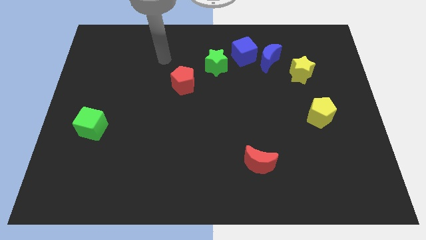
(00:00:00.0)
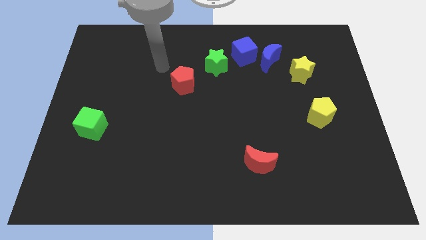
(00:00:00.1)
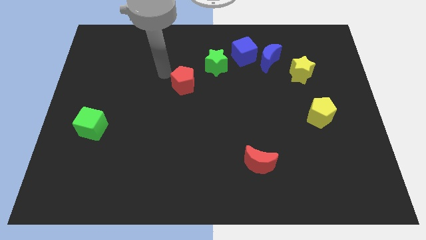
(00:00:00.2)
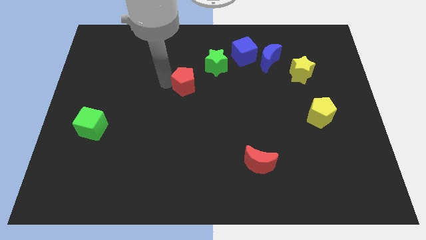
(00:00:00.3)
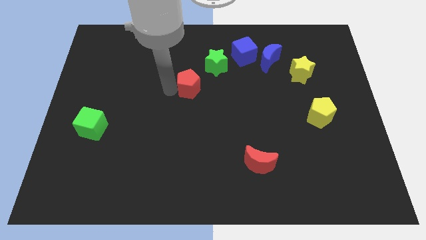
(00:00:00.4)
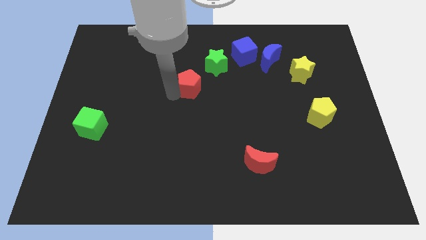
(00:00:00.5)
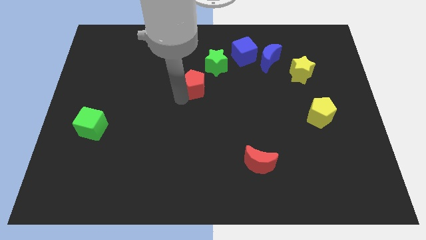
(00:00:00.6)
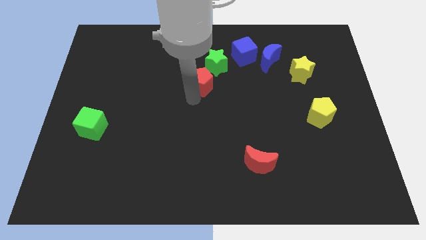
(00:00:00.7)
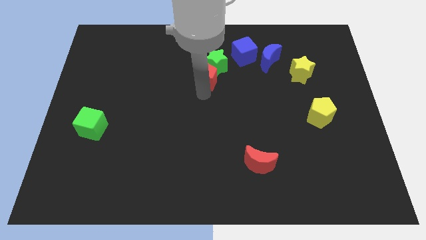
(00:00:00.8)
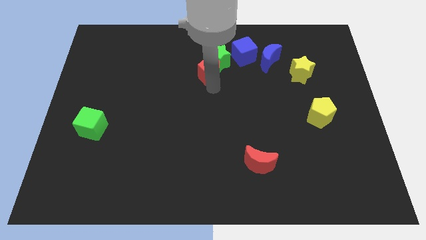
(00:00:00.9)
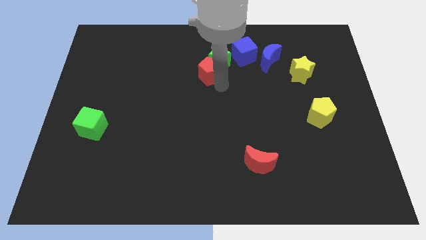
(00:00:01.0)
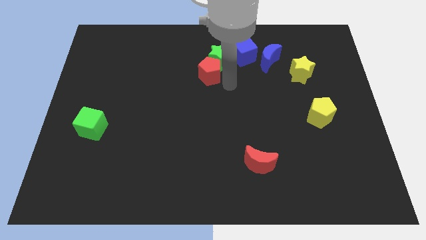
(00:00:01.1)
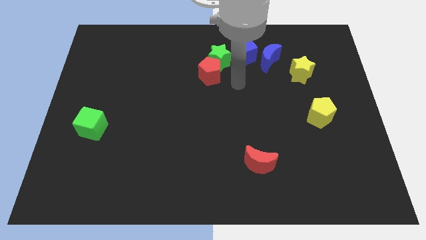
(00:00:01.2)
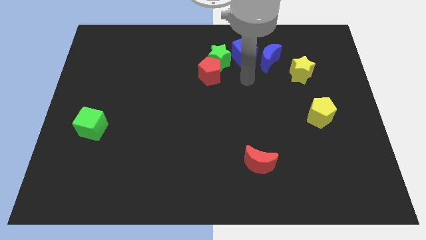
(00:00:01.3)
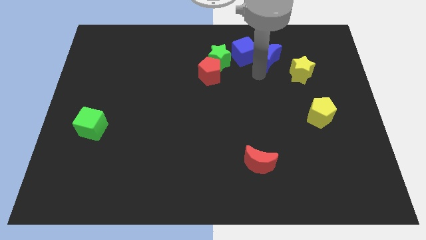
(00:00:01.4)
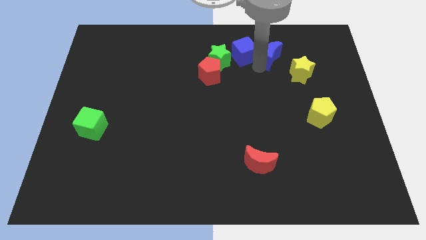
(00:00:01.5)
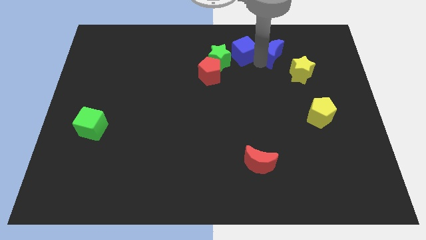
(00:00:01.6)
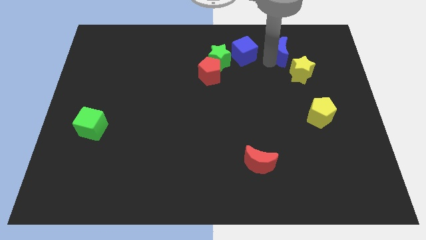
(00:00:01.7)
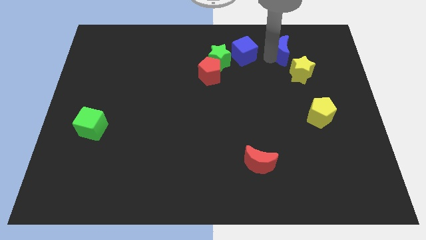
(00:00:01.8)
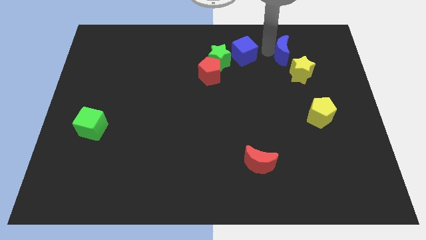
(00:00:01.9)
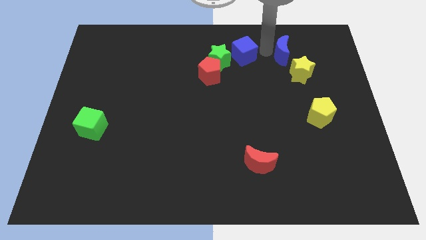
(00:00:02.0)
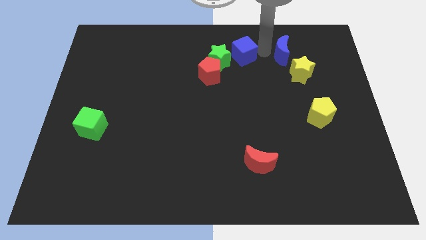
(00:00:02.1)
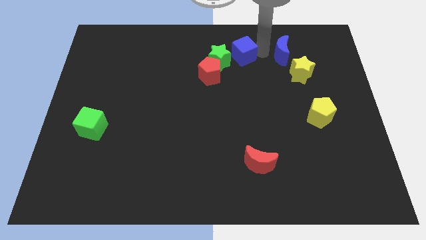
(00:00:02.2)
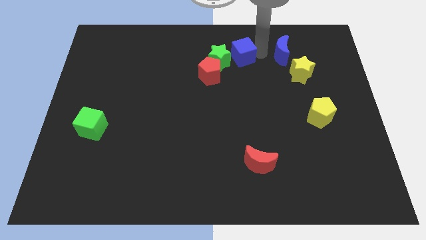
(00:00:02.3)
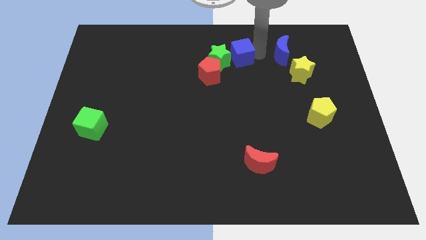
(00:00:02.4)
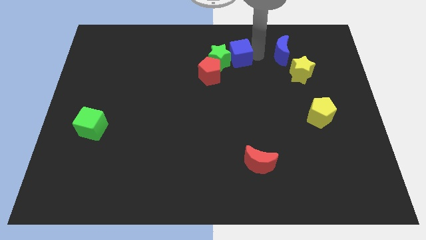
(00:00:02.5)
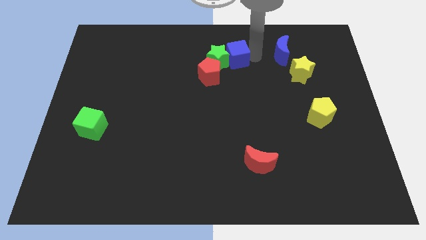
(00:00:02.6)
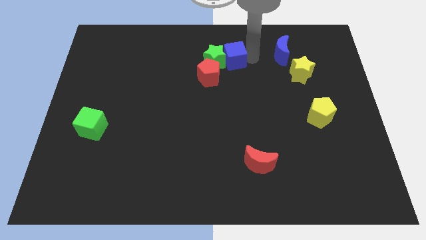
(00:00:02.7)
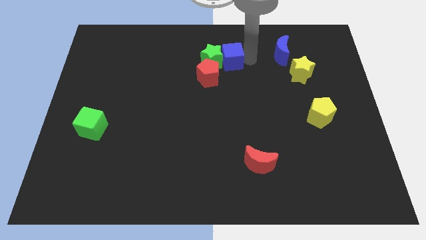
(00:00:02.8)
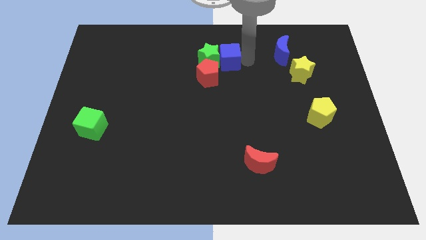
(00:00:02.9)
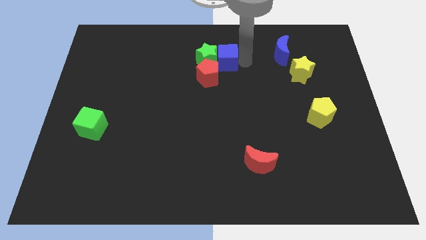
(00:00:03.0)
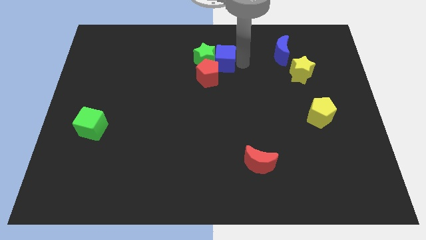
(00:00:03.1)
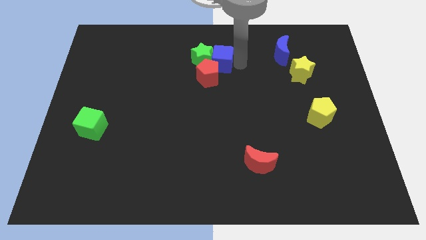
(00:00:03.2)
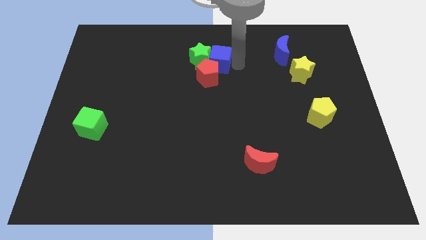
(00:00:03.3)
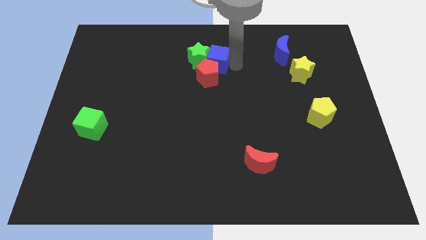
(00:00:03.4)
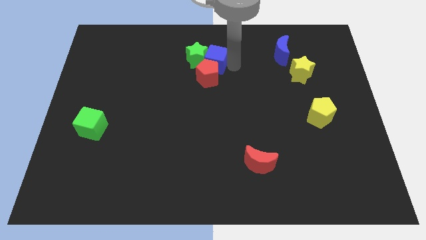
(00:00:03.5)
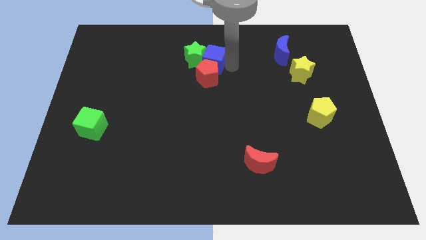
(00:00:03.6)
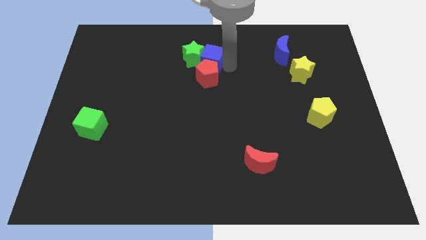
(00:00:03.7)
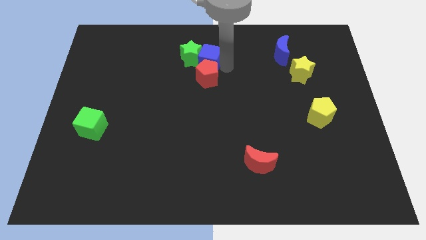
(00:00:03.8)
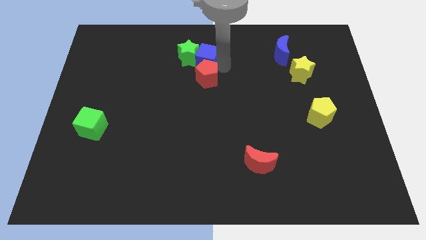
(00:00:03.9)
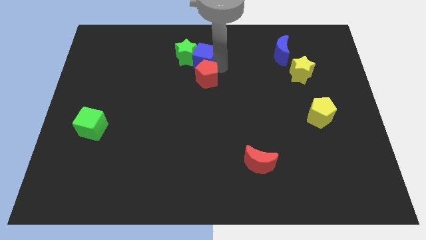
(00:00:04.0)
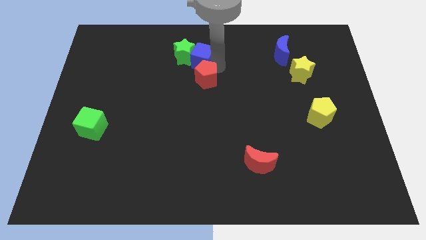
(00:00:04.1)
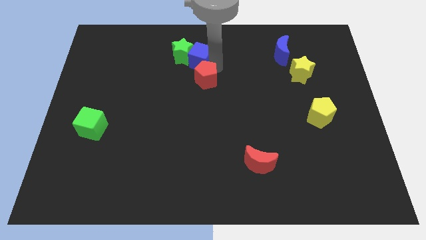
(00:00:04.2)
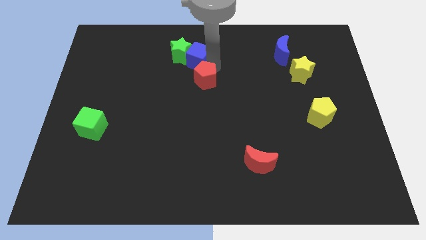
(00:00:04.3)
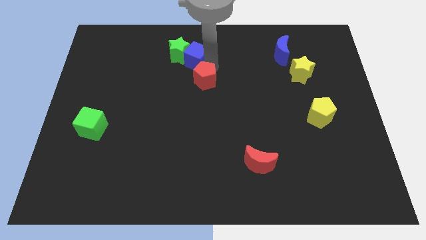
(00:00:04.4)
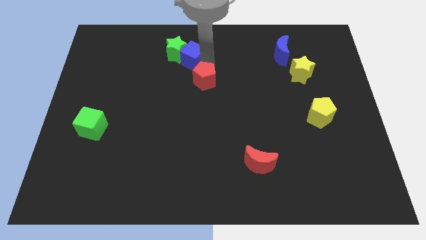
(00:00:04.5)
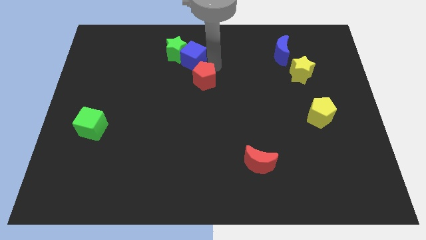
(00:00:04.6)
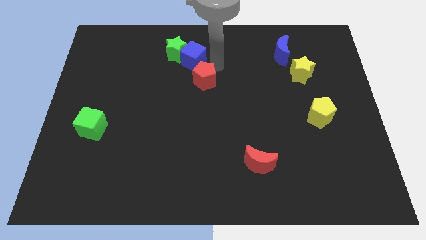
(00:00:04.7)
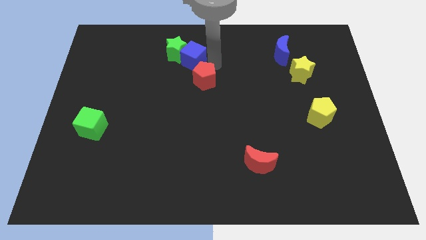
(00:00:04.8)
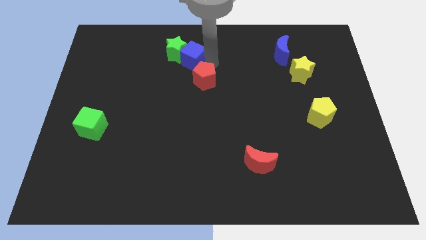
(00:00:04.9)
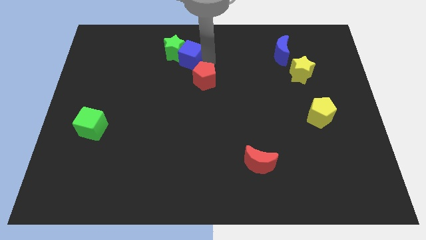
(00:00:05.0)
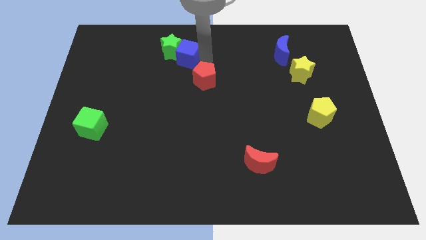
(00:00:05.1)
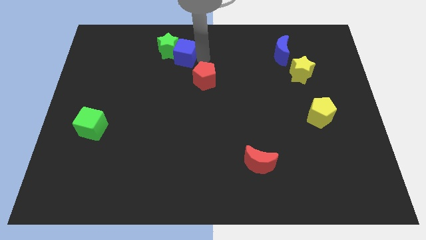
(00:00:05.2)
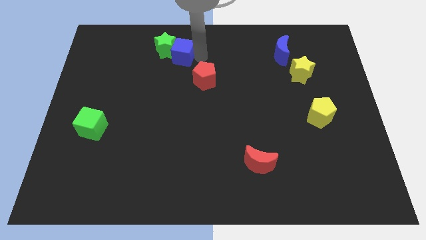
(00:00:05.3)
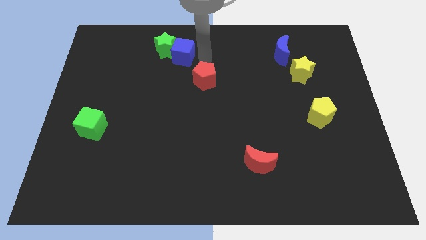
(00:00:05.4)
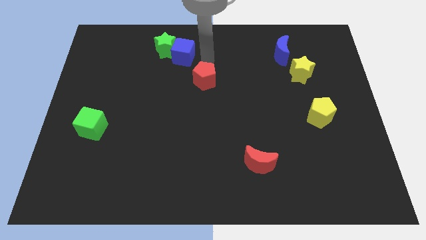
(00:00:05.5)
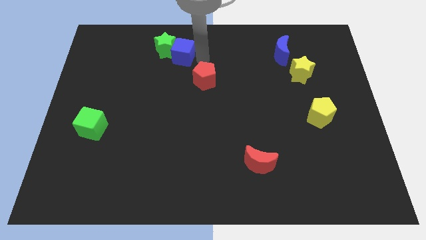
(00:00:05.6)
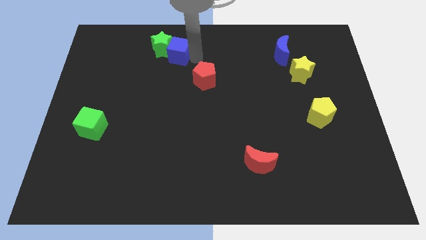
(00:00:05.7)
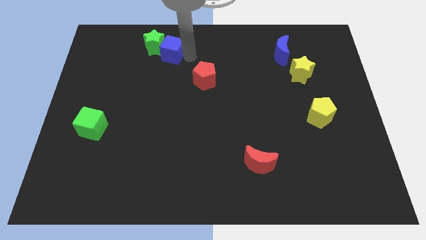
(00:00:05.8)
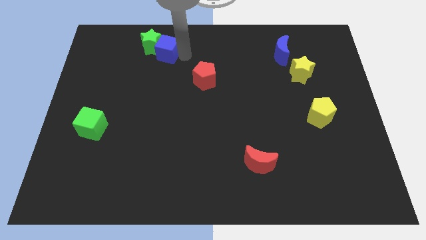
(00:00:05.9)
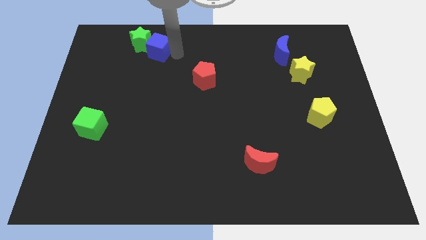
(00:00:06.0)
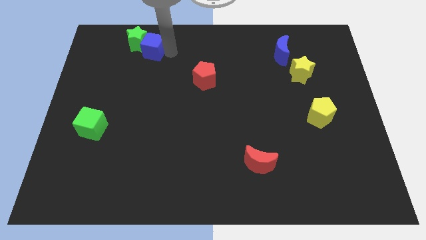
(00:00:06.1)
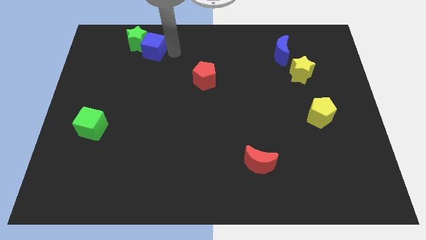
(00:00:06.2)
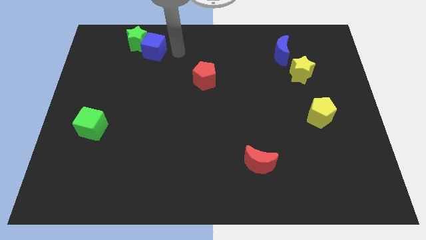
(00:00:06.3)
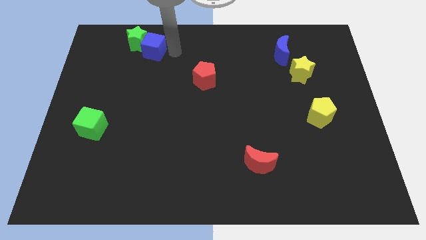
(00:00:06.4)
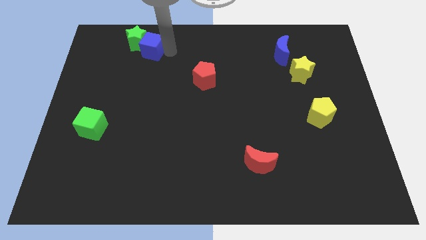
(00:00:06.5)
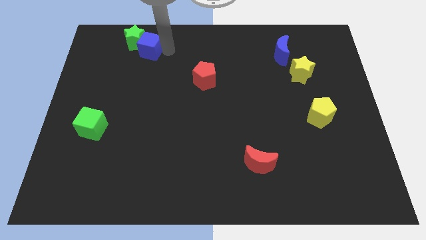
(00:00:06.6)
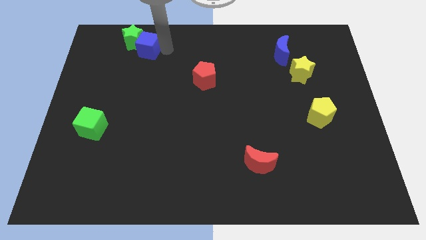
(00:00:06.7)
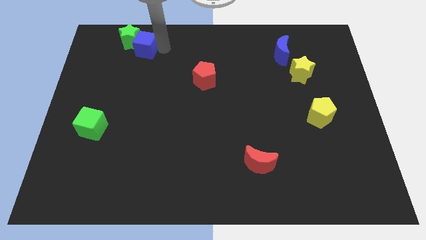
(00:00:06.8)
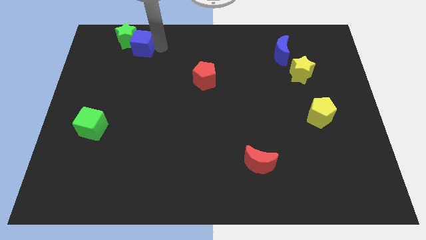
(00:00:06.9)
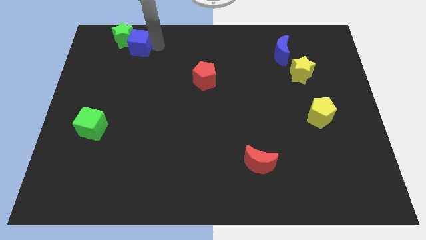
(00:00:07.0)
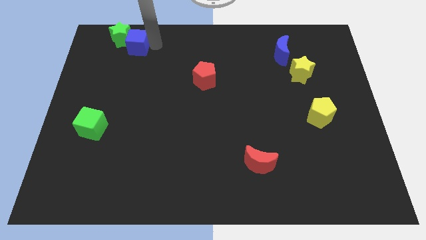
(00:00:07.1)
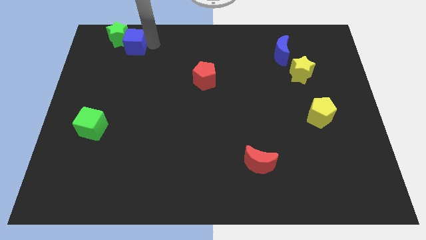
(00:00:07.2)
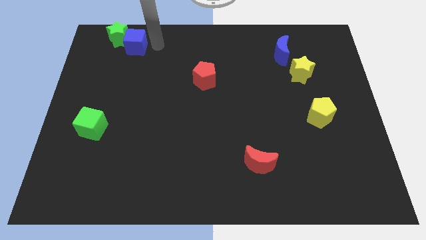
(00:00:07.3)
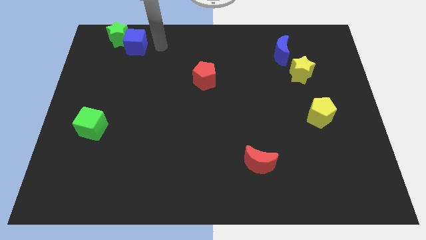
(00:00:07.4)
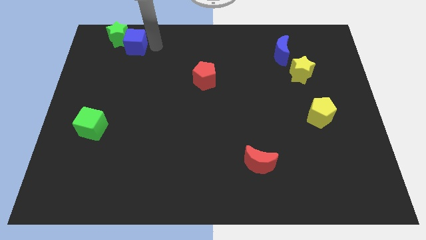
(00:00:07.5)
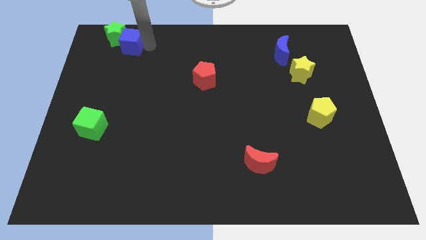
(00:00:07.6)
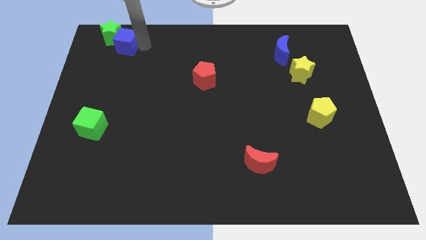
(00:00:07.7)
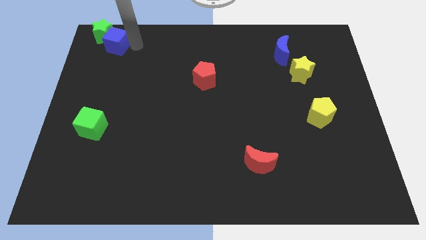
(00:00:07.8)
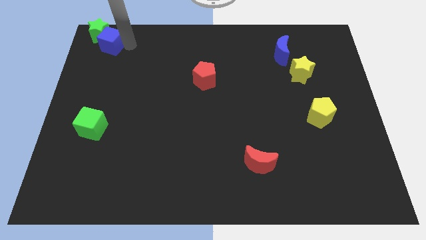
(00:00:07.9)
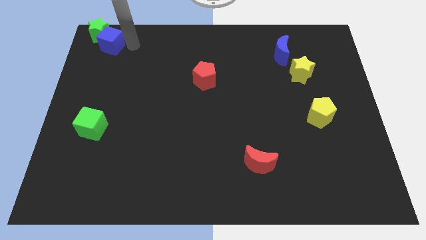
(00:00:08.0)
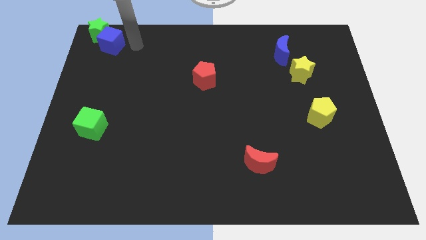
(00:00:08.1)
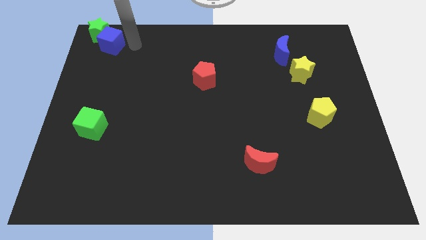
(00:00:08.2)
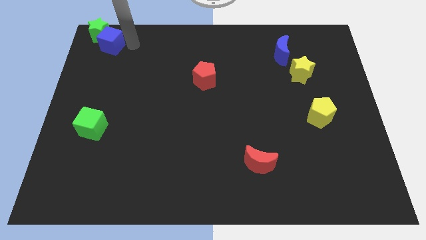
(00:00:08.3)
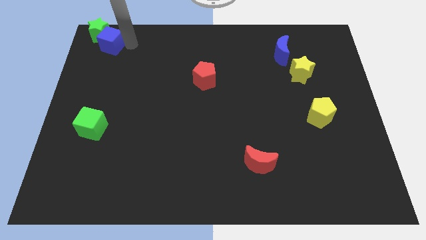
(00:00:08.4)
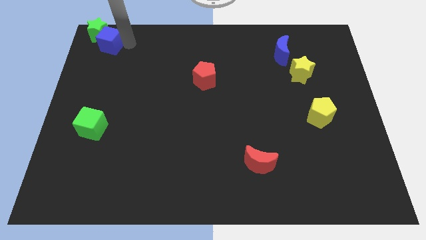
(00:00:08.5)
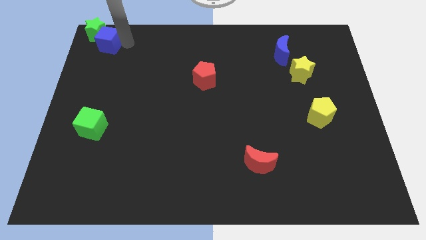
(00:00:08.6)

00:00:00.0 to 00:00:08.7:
slide the blue cube to the top left
